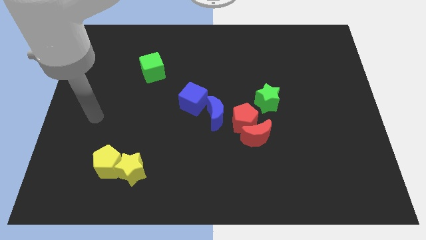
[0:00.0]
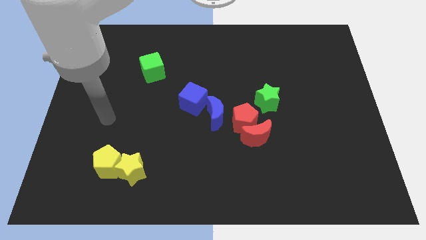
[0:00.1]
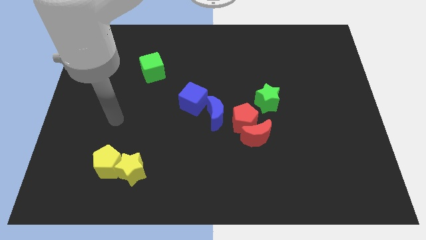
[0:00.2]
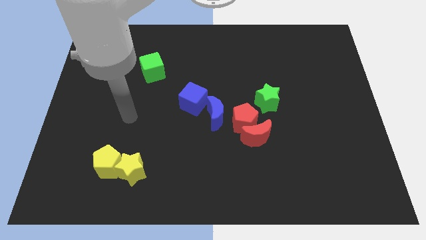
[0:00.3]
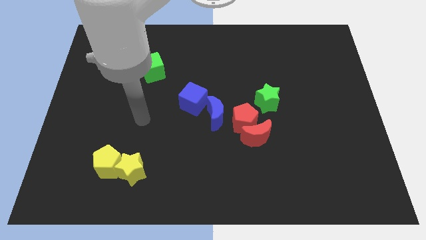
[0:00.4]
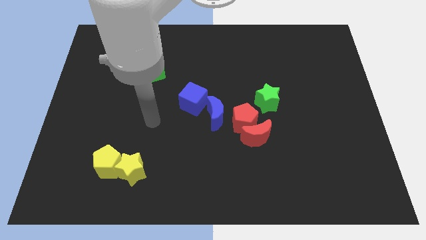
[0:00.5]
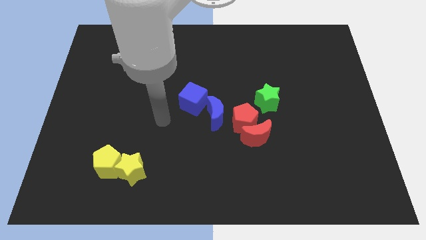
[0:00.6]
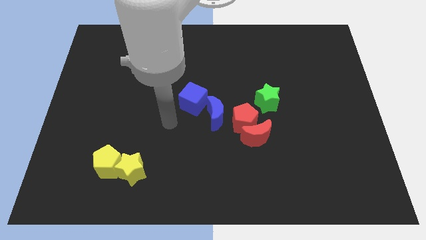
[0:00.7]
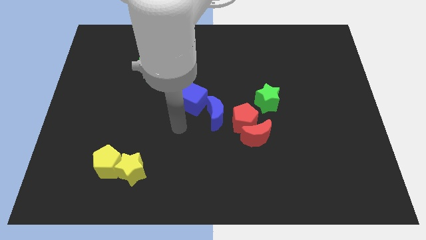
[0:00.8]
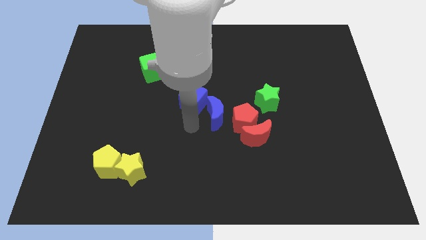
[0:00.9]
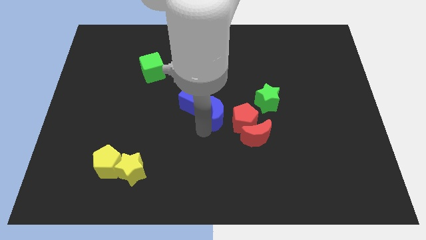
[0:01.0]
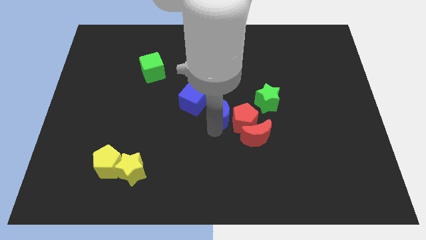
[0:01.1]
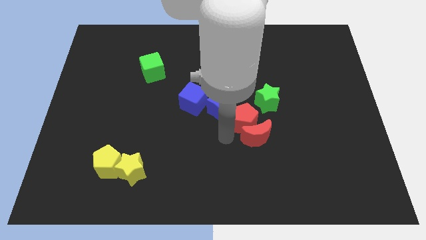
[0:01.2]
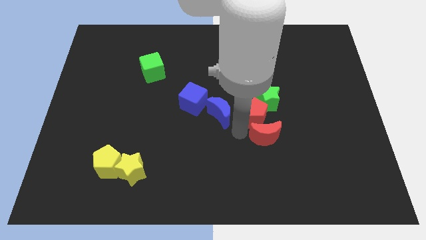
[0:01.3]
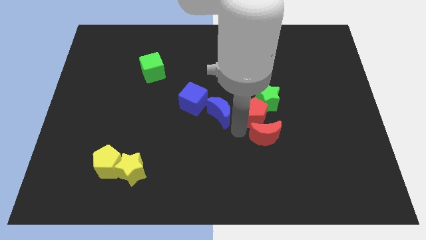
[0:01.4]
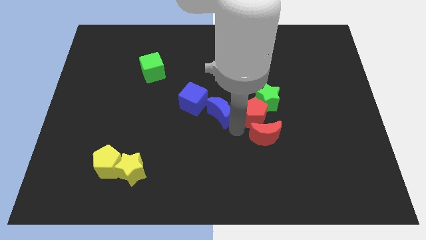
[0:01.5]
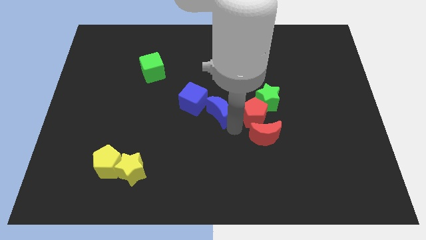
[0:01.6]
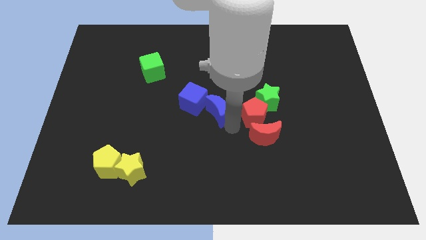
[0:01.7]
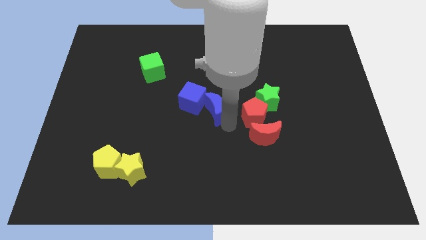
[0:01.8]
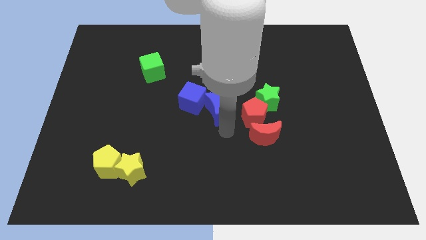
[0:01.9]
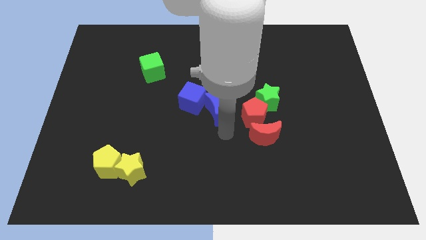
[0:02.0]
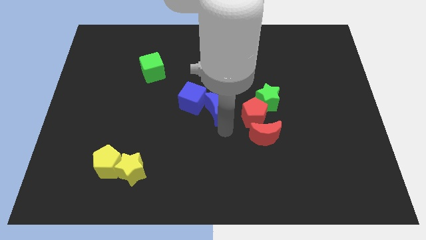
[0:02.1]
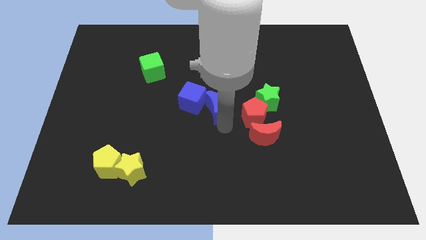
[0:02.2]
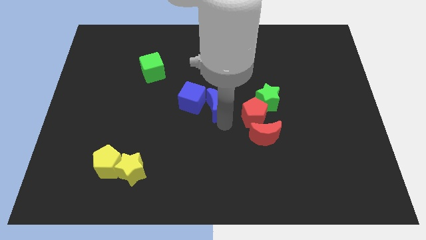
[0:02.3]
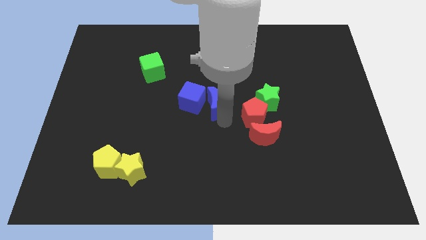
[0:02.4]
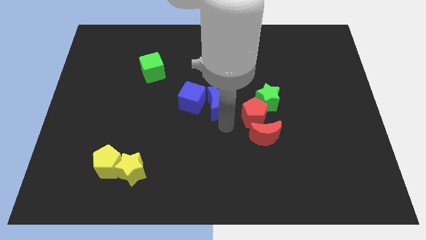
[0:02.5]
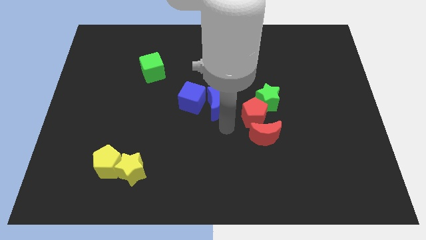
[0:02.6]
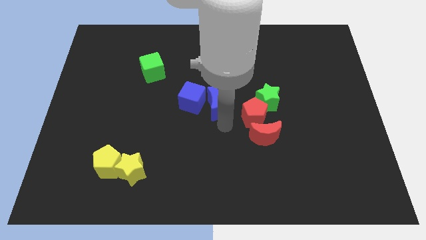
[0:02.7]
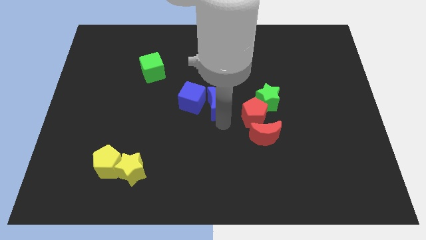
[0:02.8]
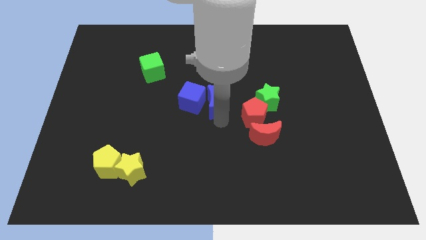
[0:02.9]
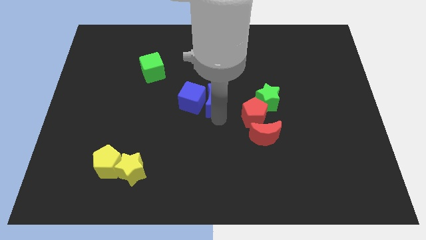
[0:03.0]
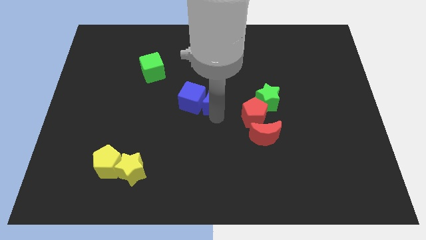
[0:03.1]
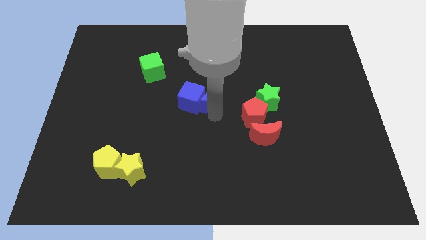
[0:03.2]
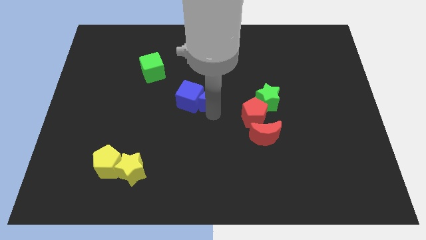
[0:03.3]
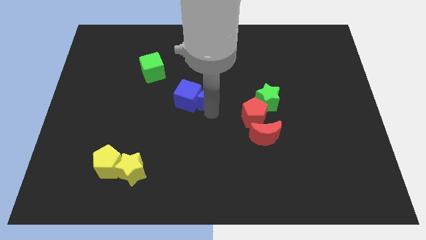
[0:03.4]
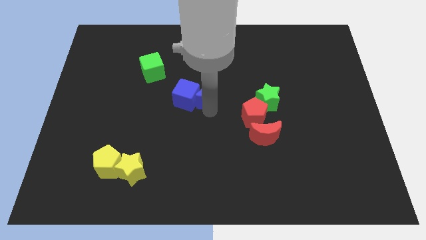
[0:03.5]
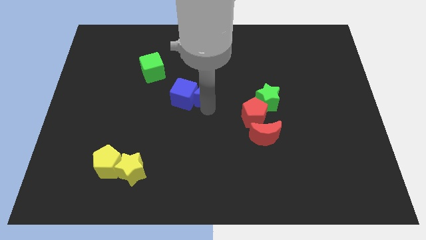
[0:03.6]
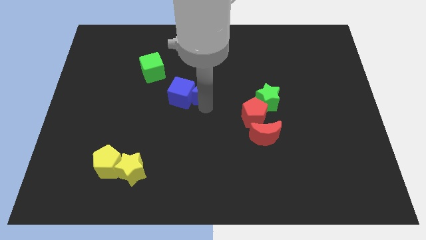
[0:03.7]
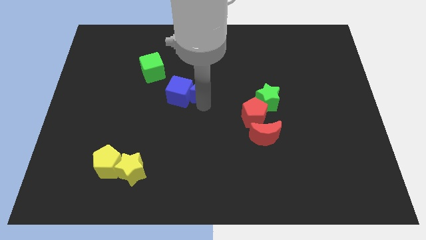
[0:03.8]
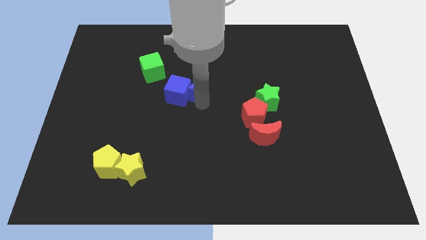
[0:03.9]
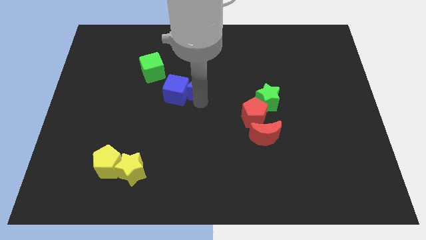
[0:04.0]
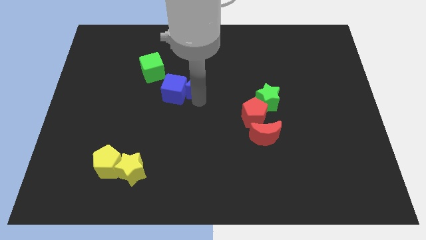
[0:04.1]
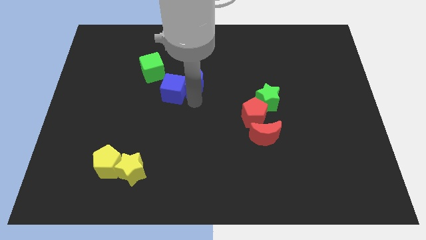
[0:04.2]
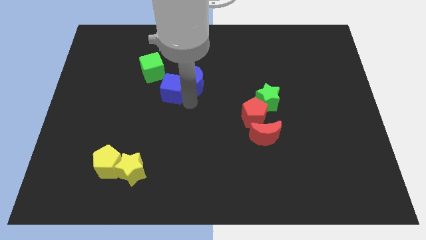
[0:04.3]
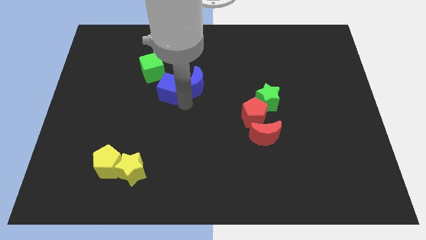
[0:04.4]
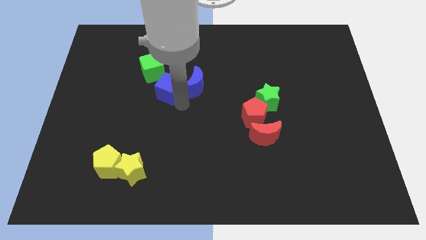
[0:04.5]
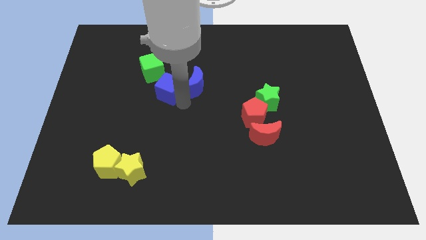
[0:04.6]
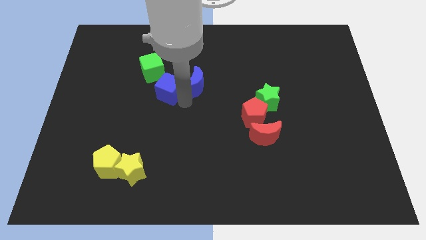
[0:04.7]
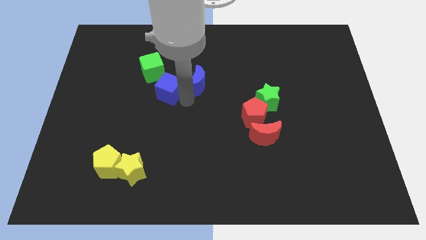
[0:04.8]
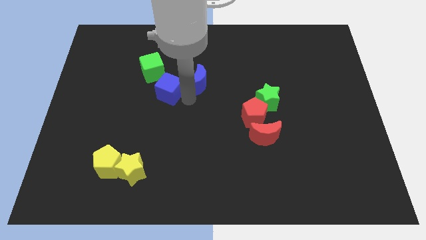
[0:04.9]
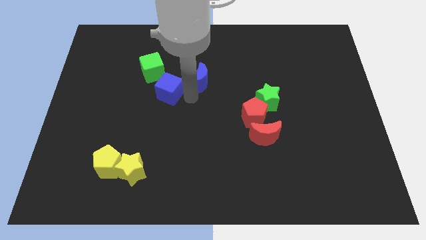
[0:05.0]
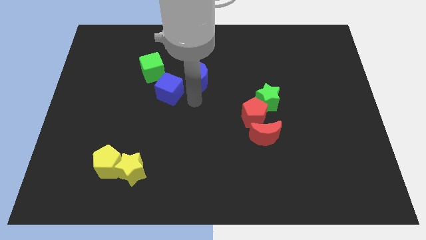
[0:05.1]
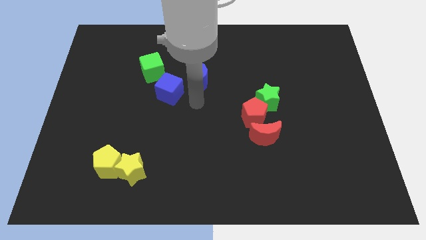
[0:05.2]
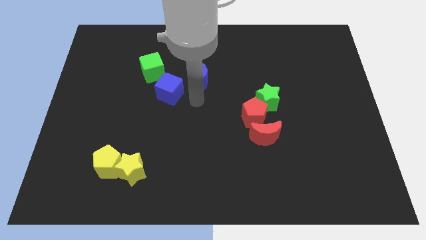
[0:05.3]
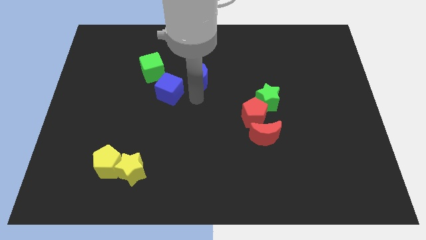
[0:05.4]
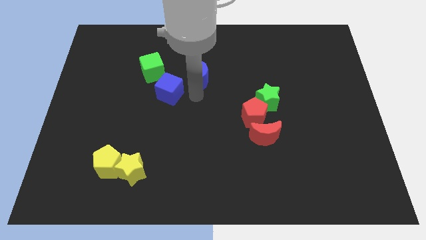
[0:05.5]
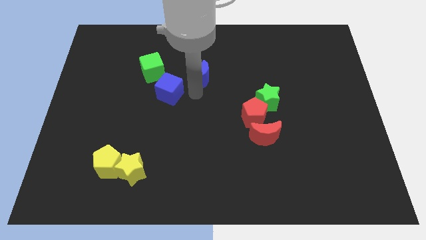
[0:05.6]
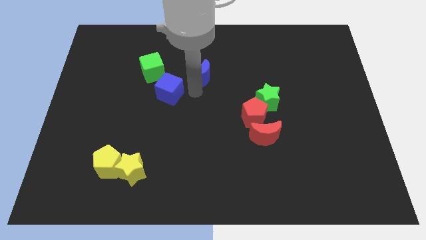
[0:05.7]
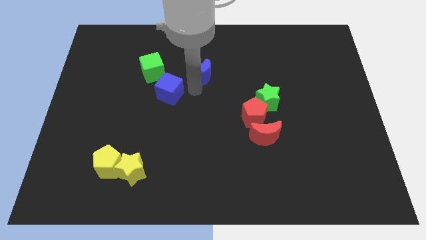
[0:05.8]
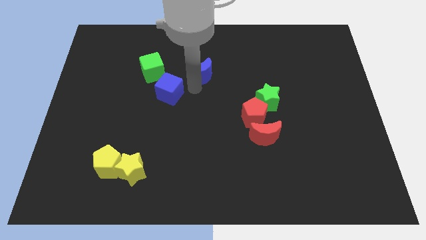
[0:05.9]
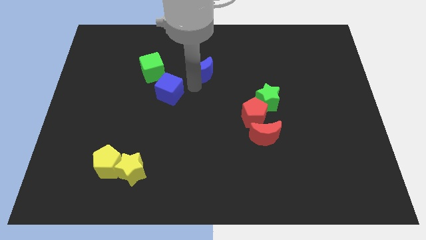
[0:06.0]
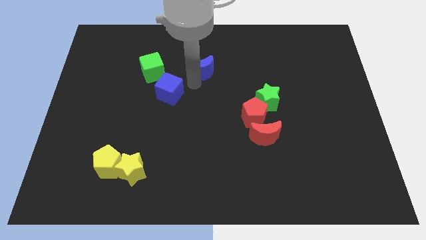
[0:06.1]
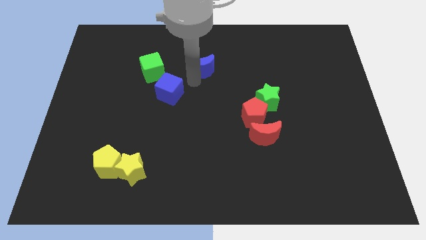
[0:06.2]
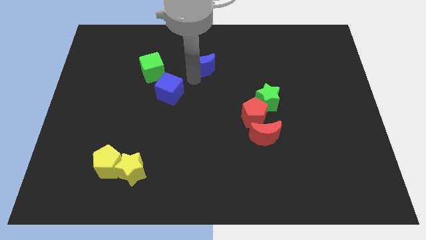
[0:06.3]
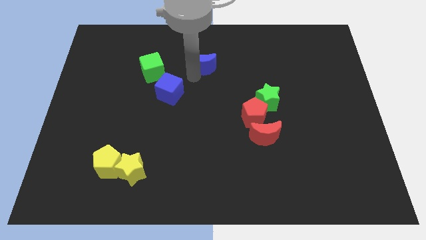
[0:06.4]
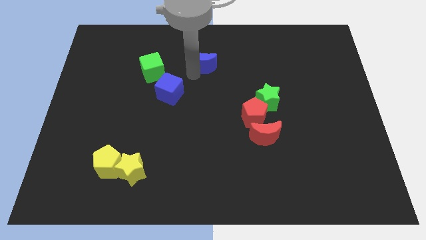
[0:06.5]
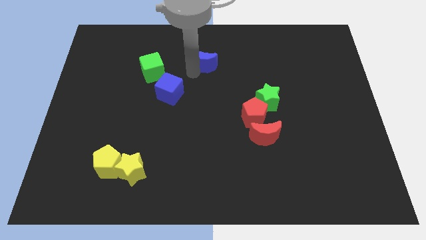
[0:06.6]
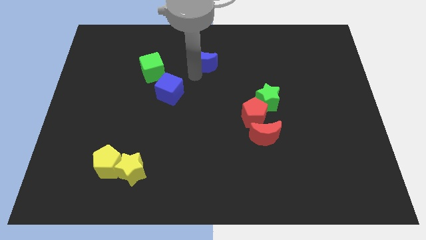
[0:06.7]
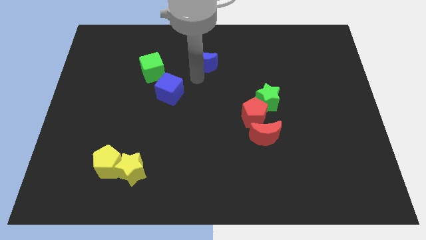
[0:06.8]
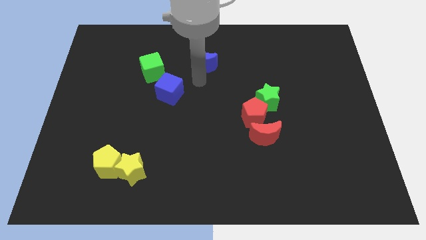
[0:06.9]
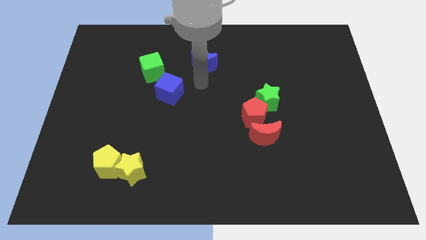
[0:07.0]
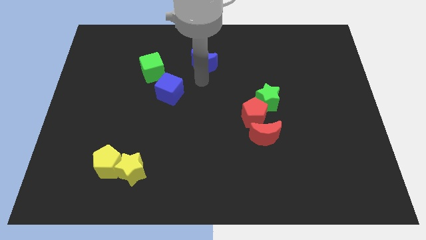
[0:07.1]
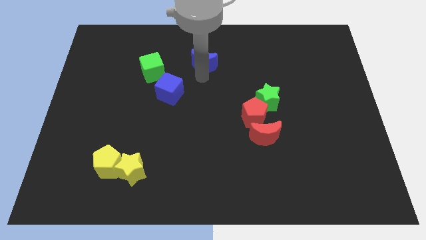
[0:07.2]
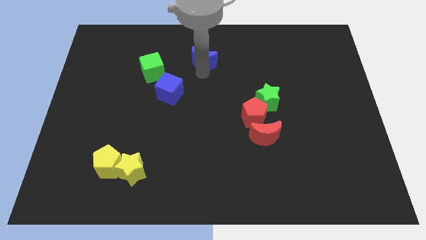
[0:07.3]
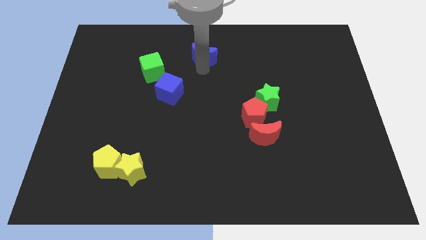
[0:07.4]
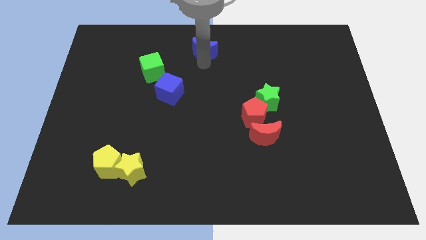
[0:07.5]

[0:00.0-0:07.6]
slide the blue moon to the top
